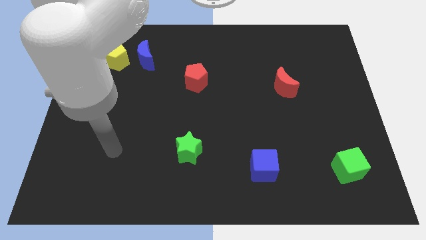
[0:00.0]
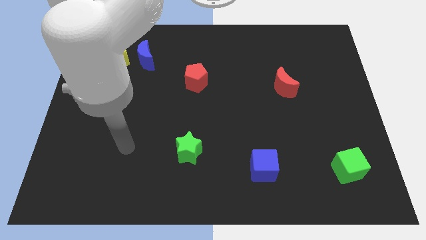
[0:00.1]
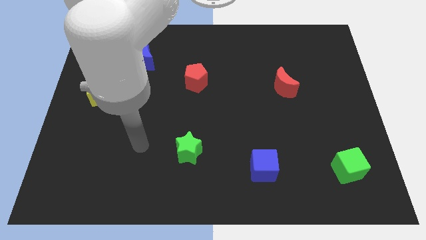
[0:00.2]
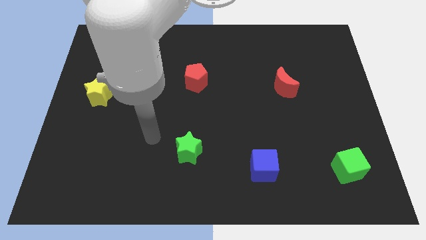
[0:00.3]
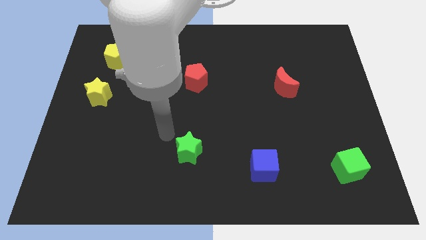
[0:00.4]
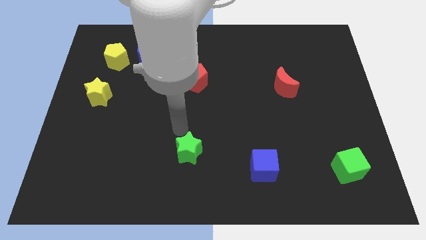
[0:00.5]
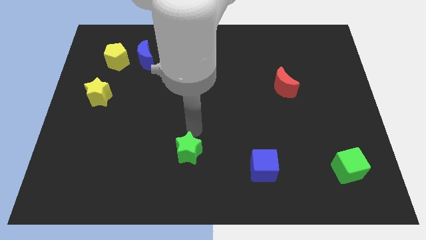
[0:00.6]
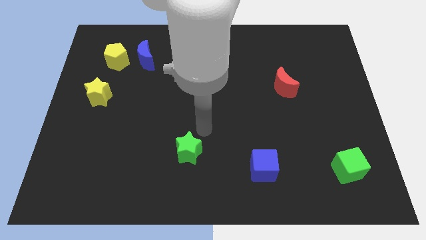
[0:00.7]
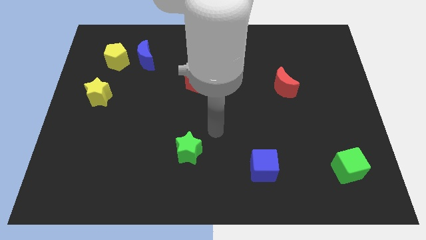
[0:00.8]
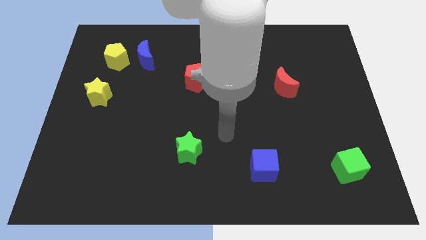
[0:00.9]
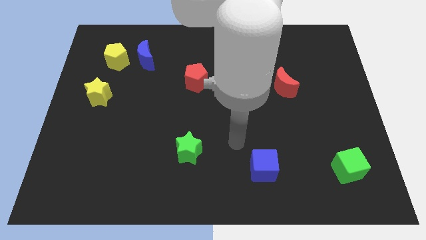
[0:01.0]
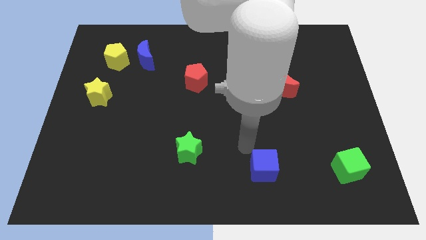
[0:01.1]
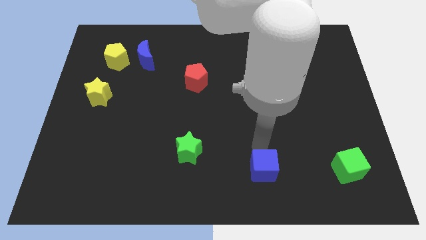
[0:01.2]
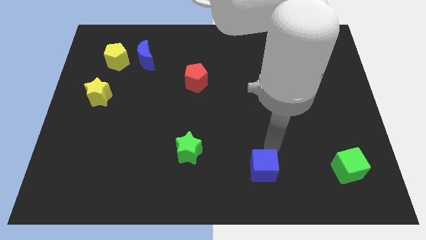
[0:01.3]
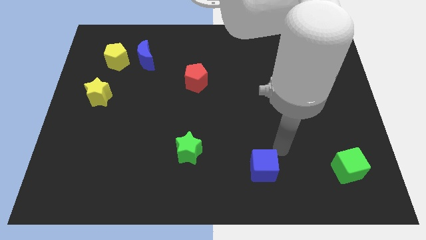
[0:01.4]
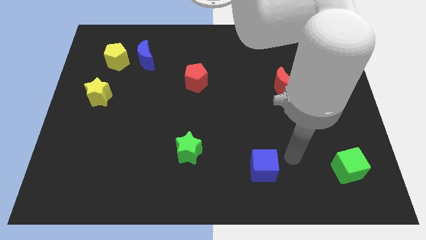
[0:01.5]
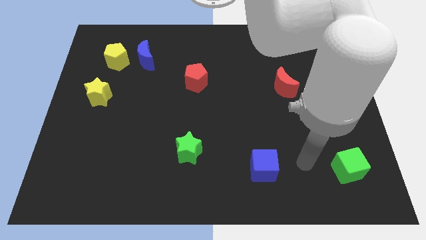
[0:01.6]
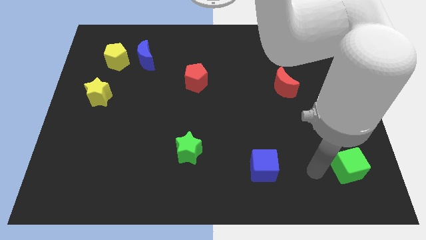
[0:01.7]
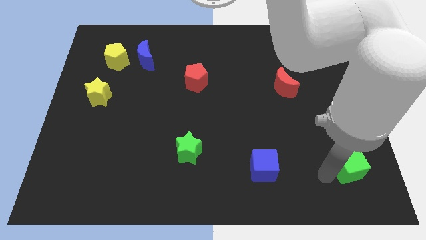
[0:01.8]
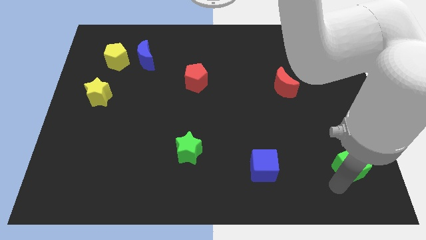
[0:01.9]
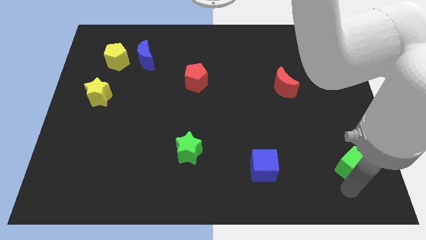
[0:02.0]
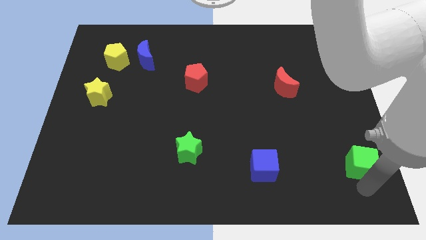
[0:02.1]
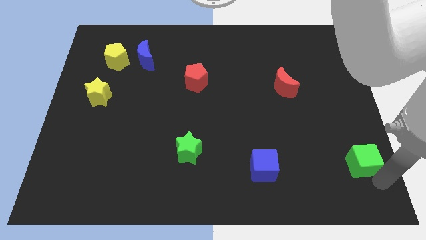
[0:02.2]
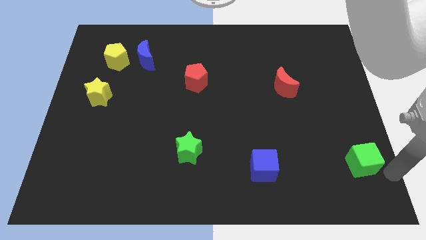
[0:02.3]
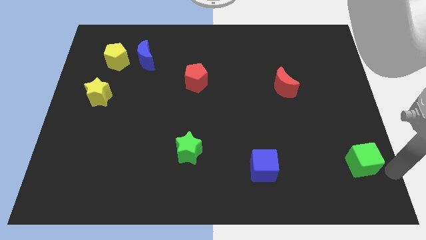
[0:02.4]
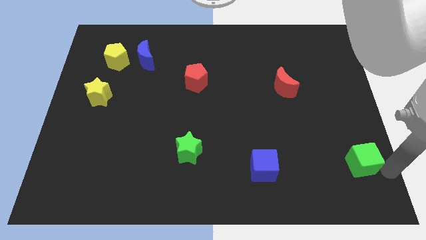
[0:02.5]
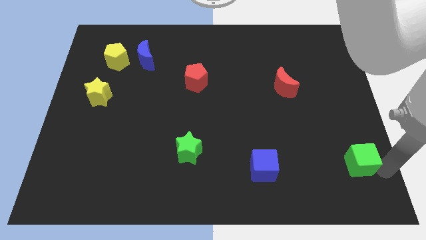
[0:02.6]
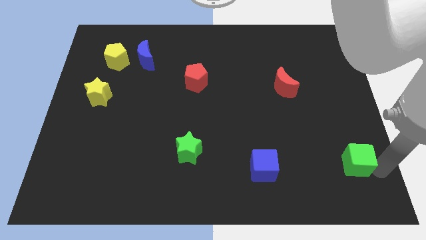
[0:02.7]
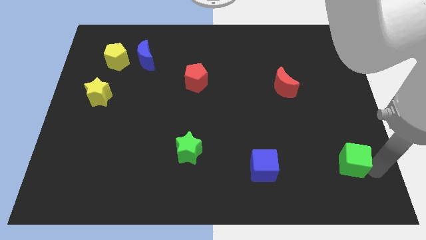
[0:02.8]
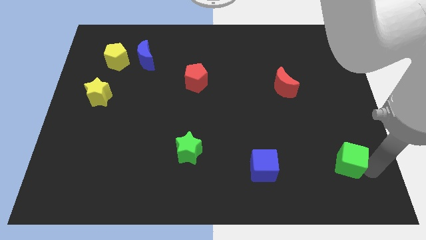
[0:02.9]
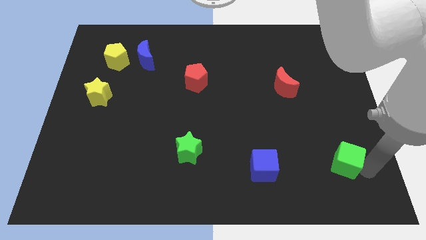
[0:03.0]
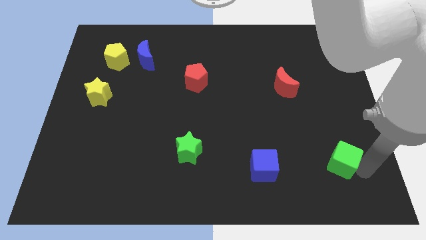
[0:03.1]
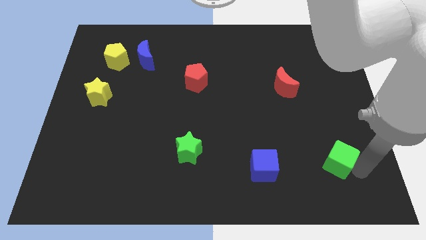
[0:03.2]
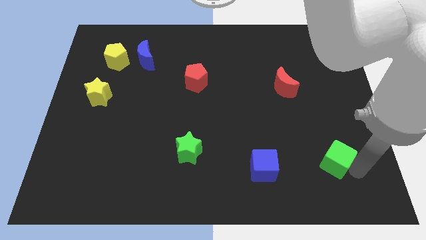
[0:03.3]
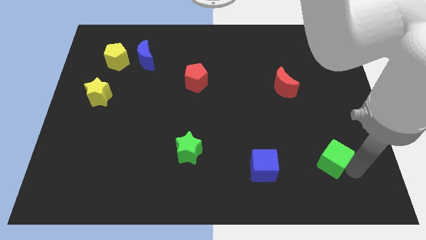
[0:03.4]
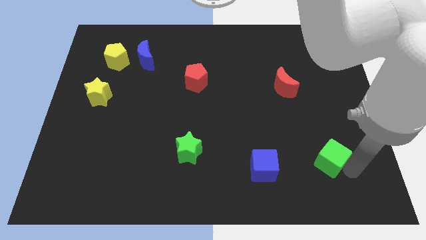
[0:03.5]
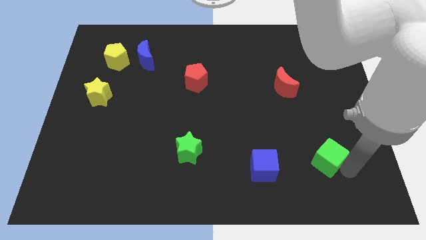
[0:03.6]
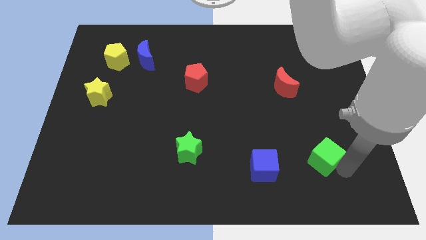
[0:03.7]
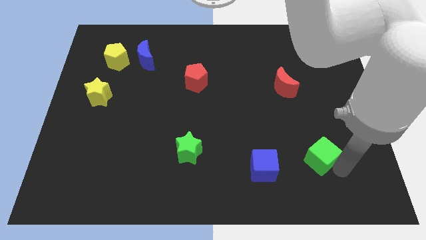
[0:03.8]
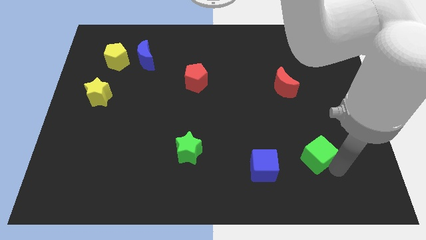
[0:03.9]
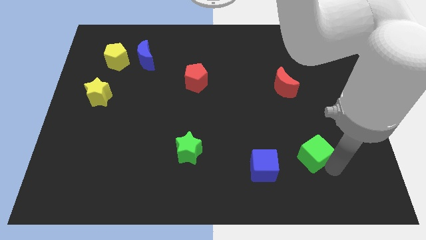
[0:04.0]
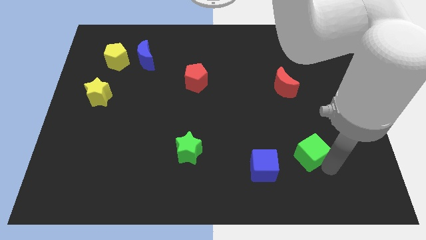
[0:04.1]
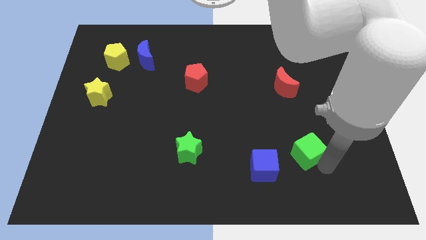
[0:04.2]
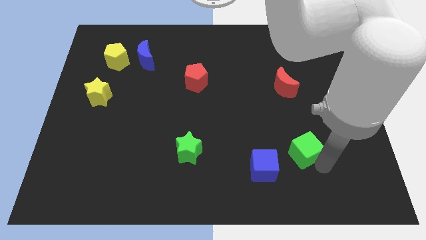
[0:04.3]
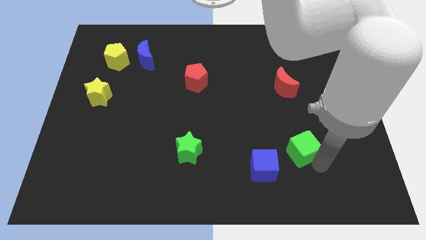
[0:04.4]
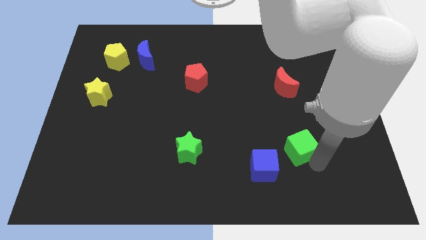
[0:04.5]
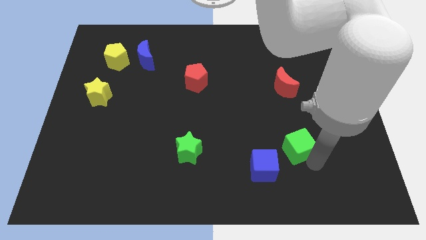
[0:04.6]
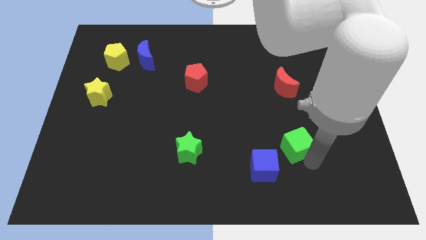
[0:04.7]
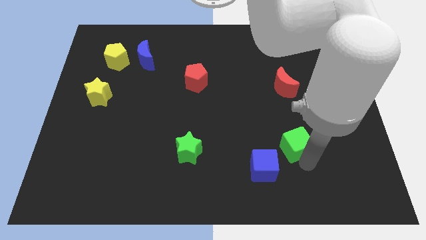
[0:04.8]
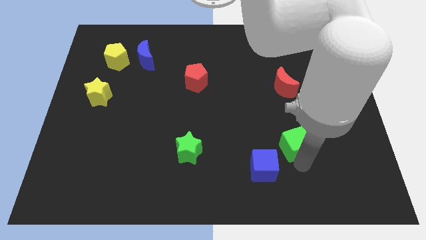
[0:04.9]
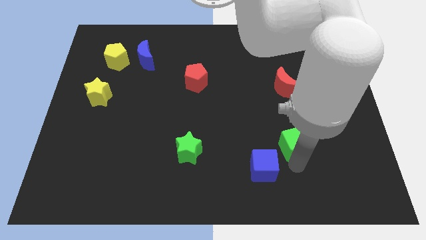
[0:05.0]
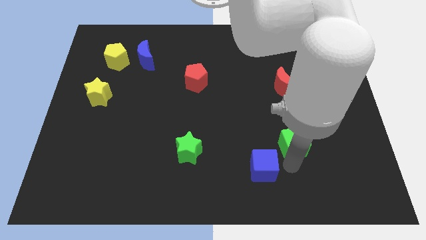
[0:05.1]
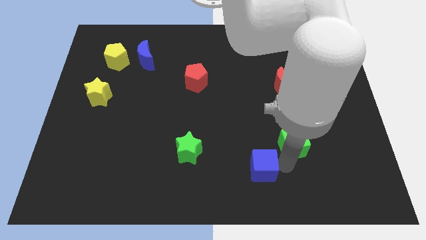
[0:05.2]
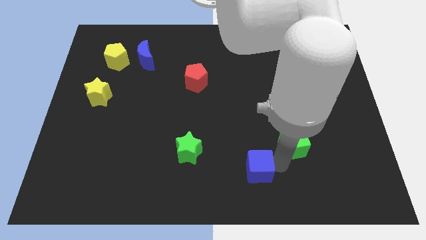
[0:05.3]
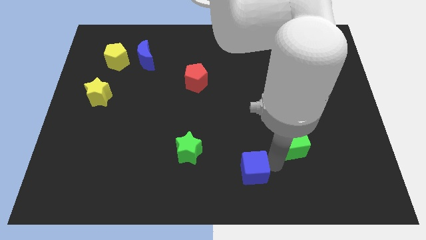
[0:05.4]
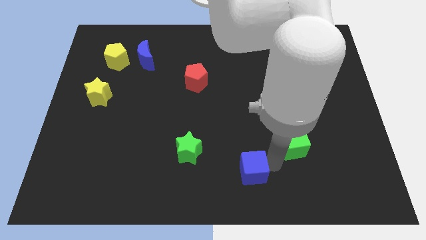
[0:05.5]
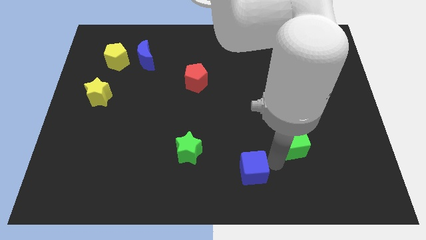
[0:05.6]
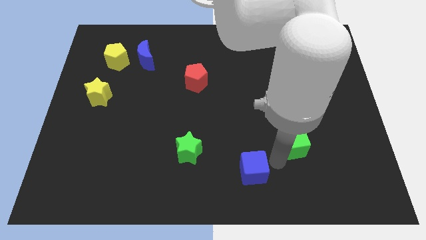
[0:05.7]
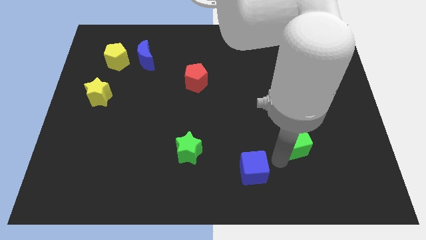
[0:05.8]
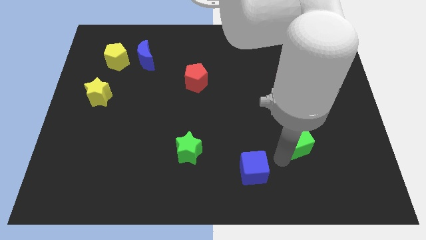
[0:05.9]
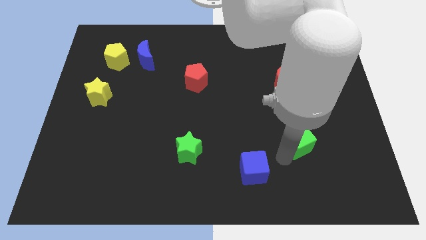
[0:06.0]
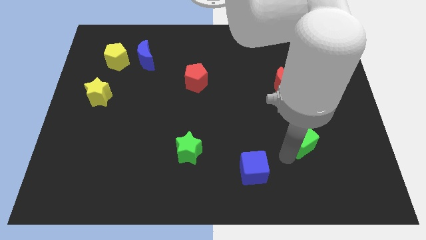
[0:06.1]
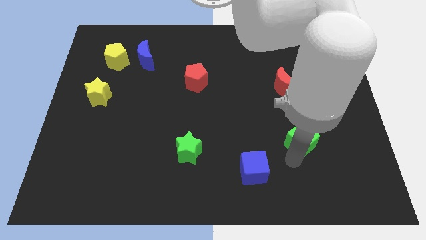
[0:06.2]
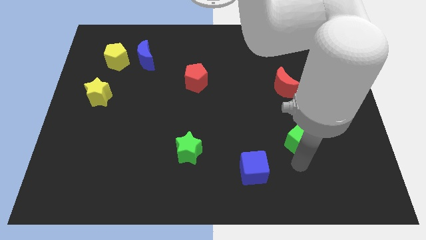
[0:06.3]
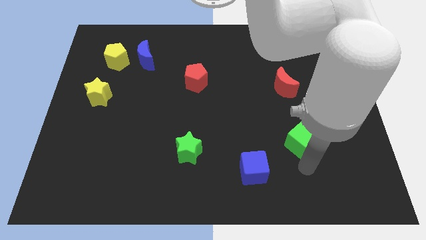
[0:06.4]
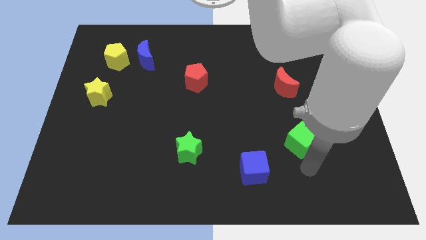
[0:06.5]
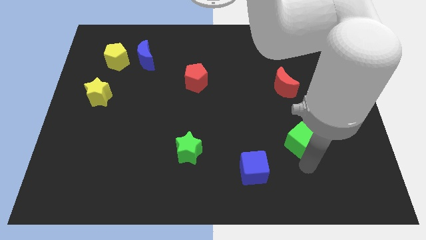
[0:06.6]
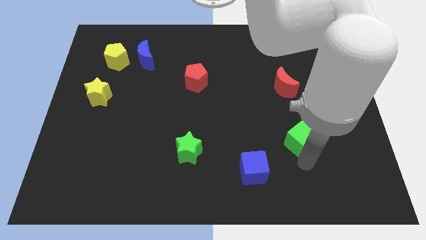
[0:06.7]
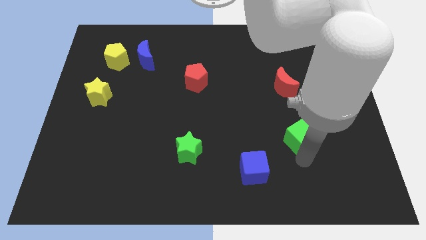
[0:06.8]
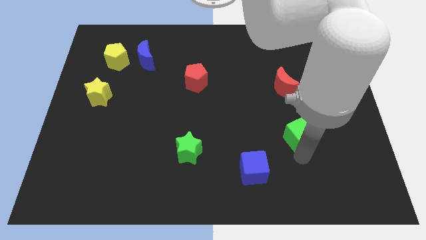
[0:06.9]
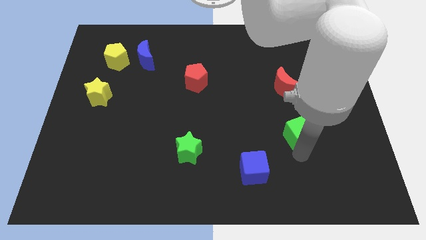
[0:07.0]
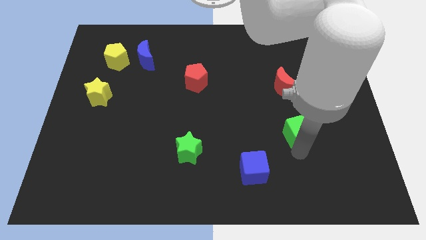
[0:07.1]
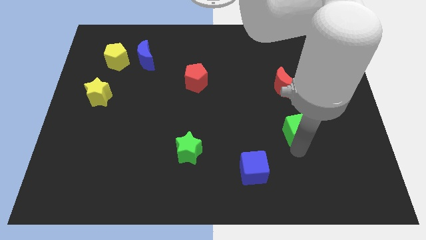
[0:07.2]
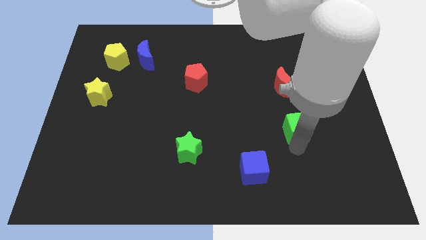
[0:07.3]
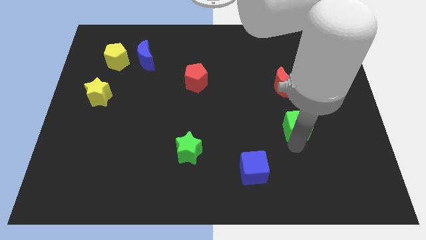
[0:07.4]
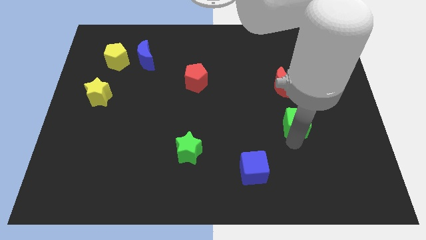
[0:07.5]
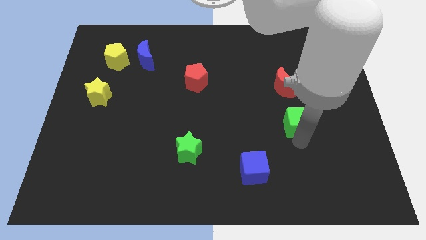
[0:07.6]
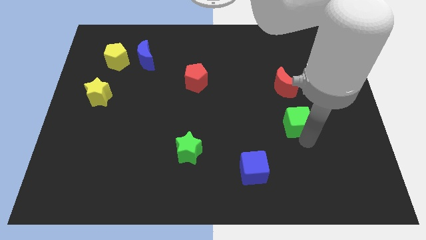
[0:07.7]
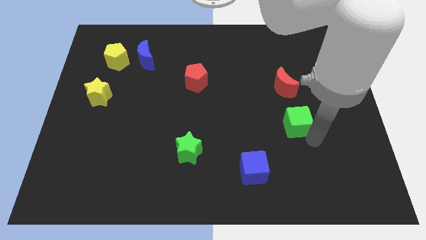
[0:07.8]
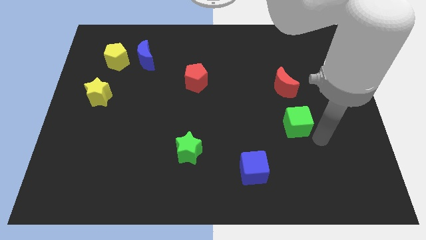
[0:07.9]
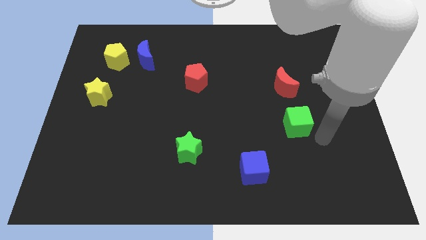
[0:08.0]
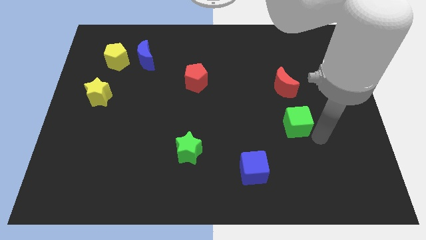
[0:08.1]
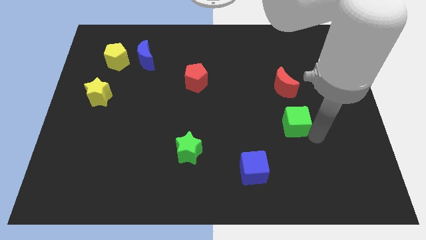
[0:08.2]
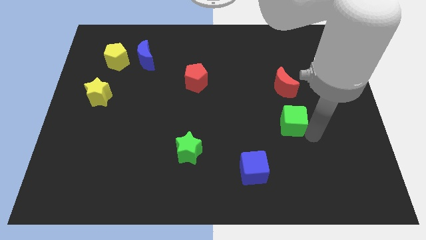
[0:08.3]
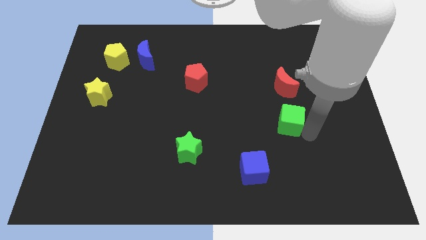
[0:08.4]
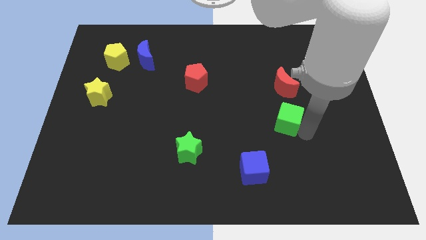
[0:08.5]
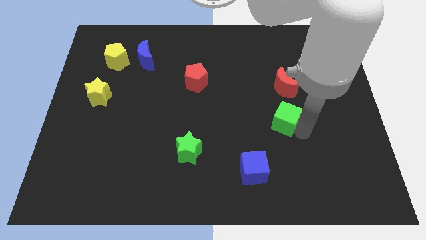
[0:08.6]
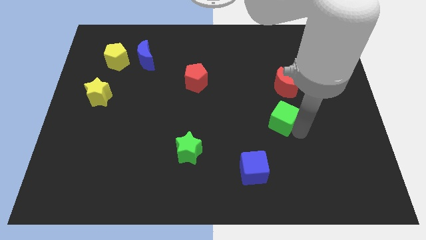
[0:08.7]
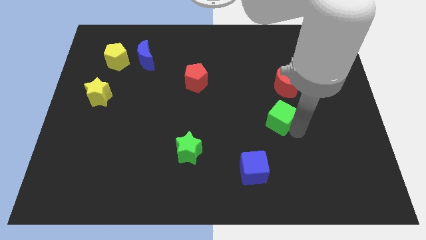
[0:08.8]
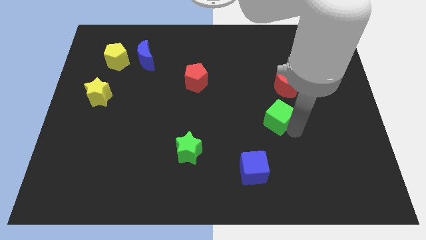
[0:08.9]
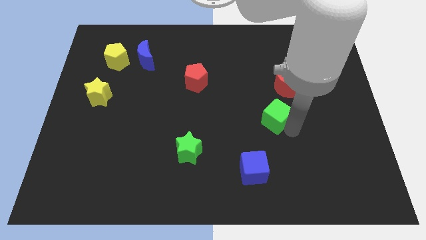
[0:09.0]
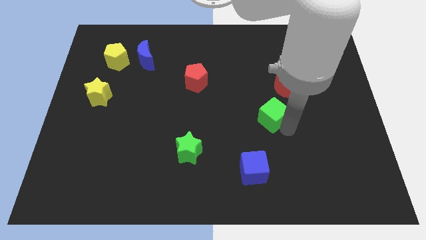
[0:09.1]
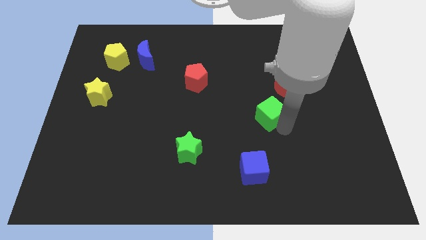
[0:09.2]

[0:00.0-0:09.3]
slide the green cube upwards and then to the left
